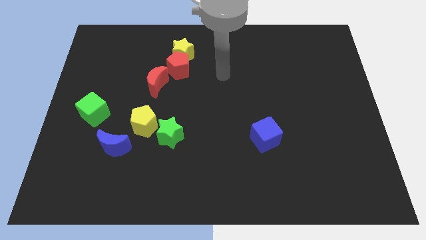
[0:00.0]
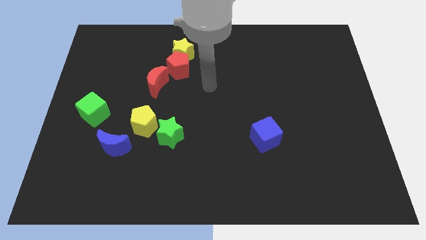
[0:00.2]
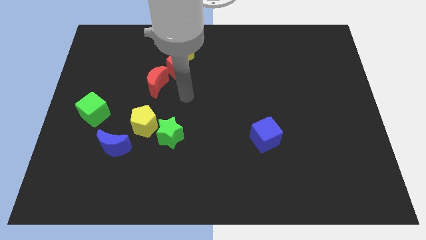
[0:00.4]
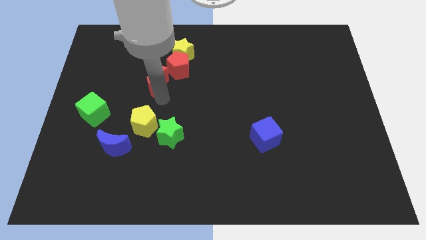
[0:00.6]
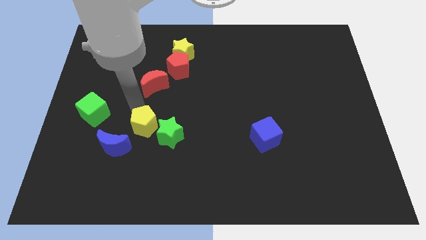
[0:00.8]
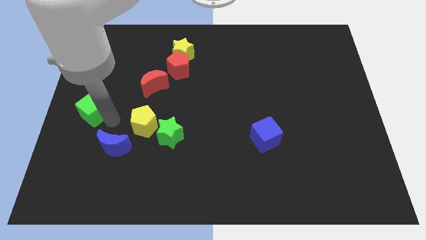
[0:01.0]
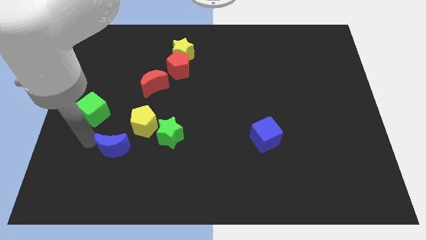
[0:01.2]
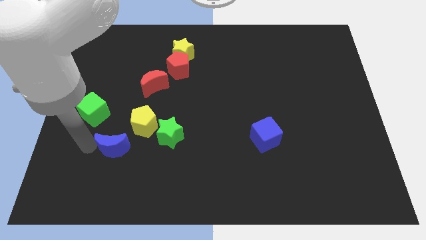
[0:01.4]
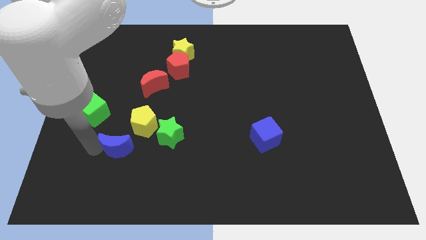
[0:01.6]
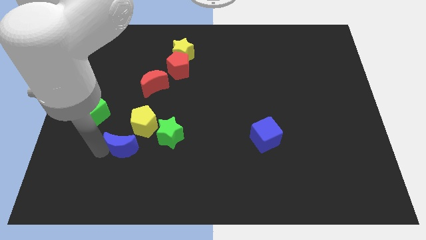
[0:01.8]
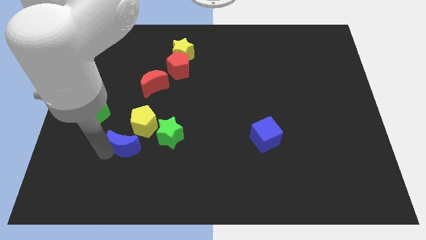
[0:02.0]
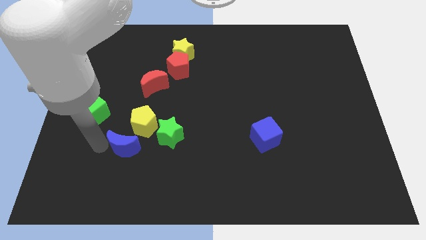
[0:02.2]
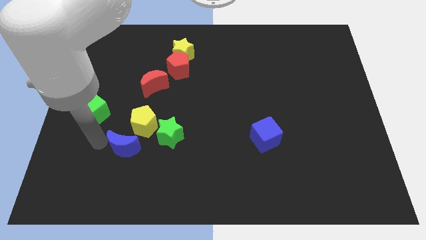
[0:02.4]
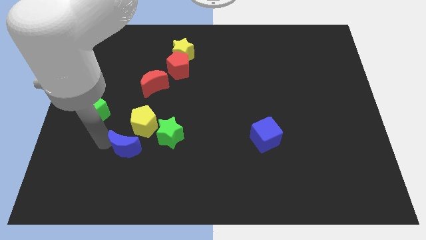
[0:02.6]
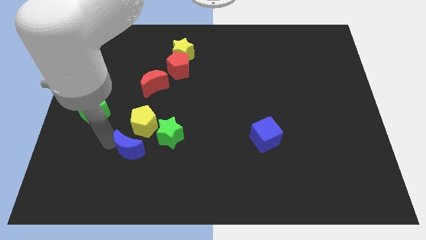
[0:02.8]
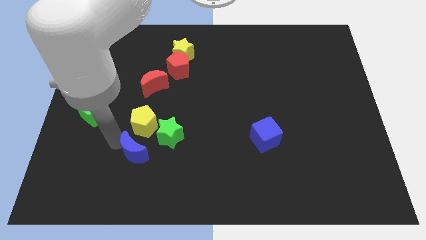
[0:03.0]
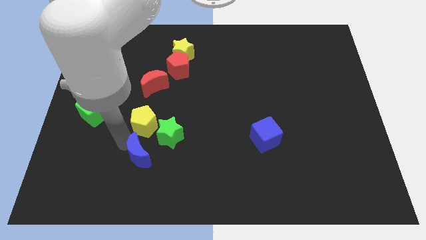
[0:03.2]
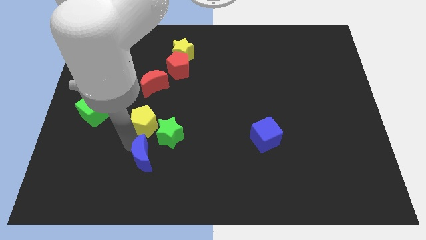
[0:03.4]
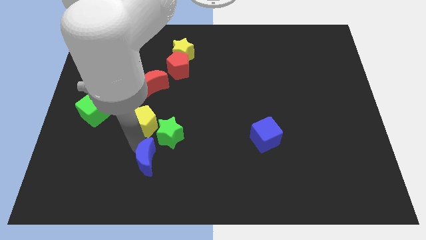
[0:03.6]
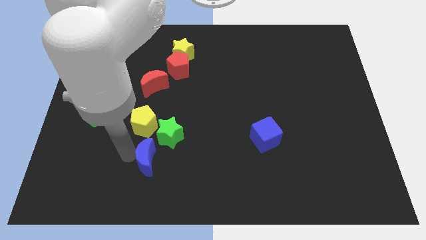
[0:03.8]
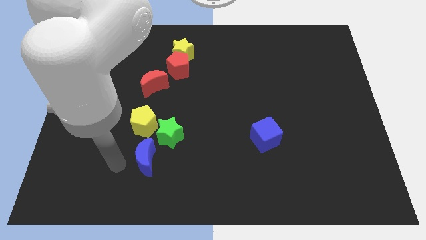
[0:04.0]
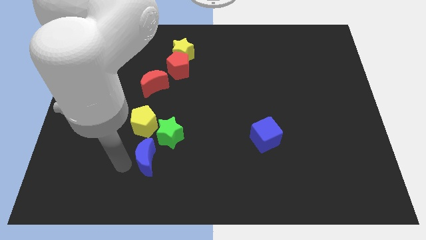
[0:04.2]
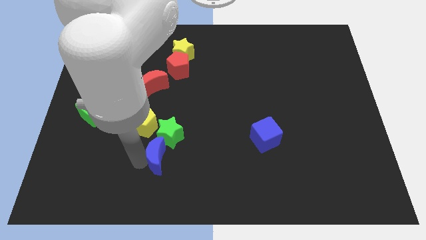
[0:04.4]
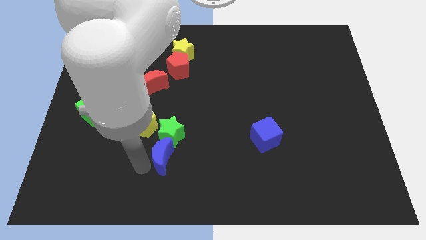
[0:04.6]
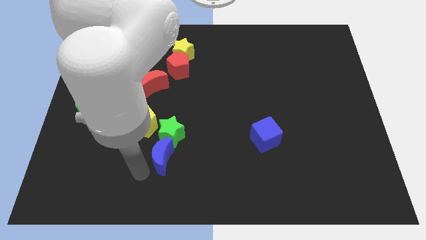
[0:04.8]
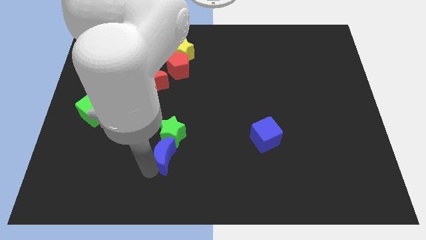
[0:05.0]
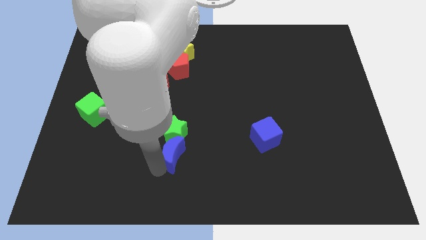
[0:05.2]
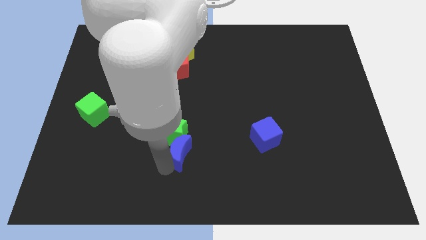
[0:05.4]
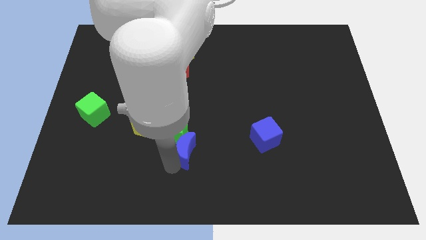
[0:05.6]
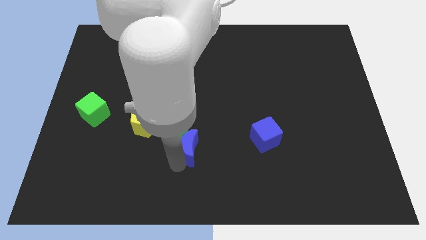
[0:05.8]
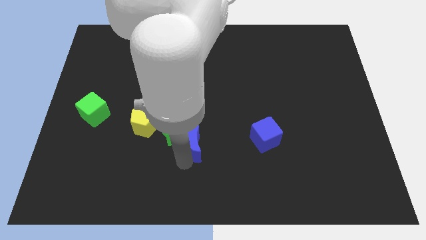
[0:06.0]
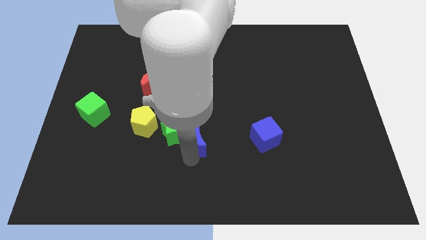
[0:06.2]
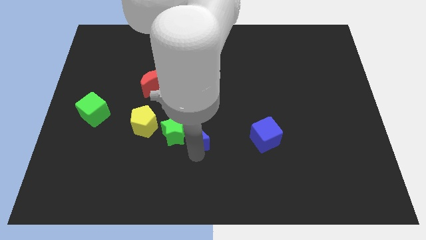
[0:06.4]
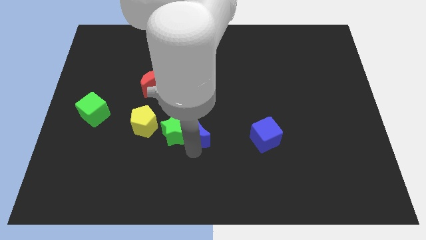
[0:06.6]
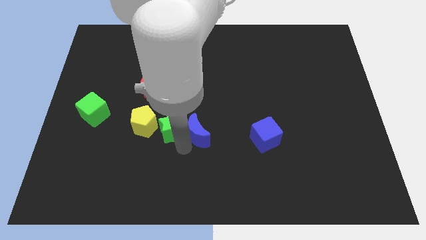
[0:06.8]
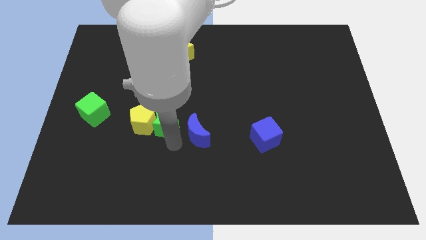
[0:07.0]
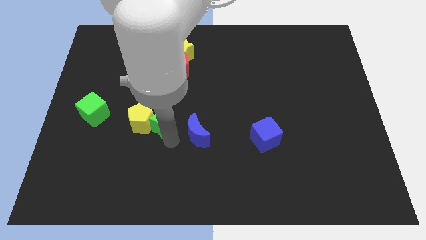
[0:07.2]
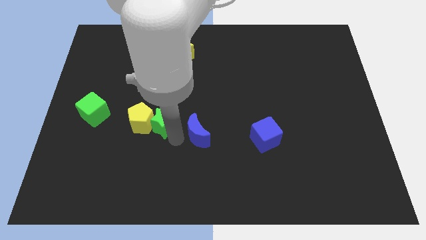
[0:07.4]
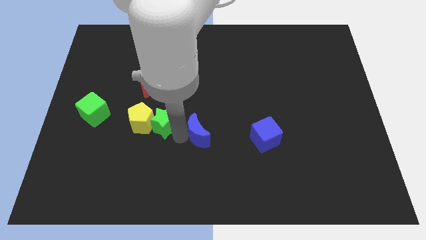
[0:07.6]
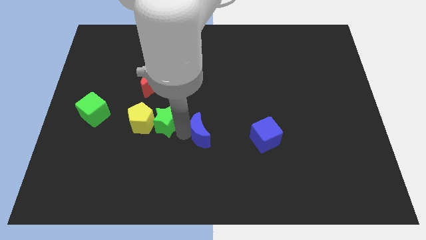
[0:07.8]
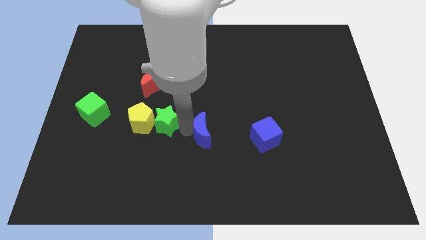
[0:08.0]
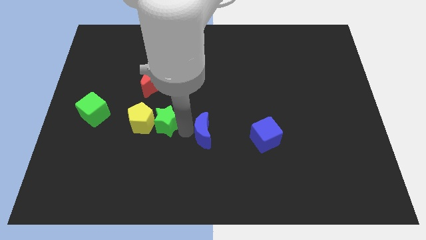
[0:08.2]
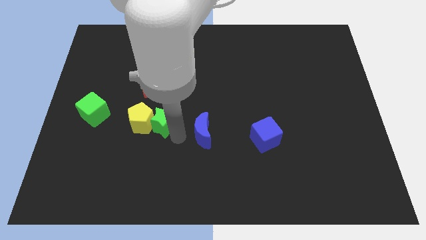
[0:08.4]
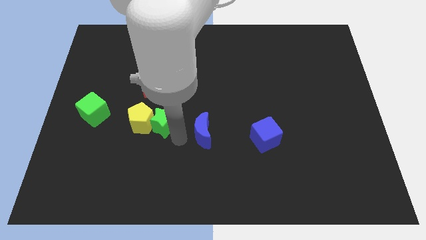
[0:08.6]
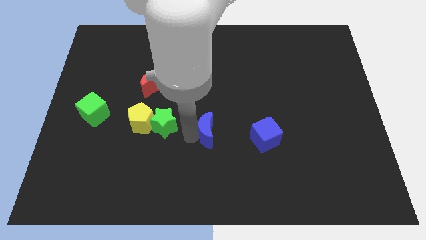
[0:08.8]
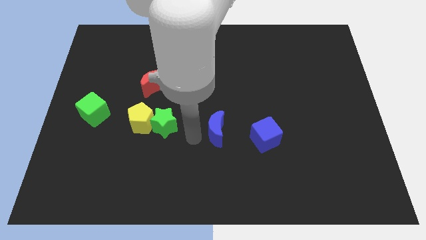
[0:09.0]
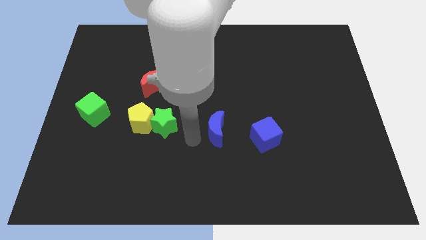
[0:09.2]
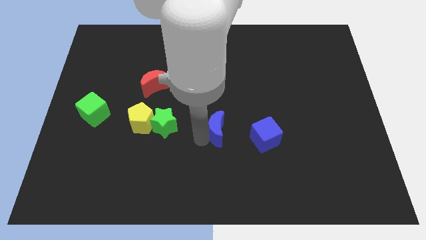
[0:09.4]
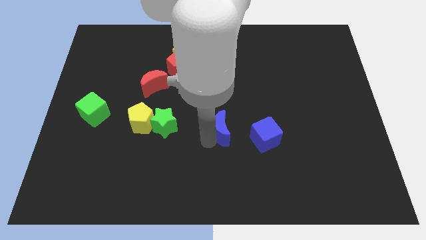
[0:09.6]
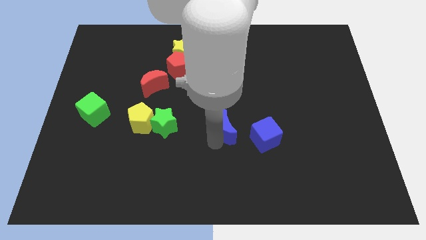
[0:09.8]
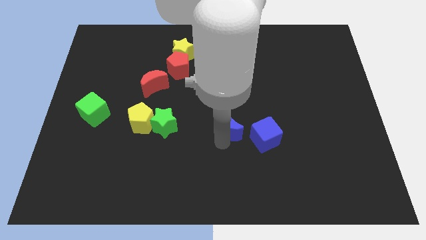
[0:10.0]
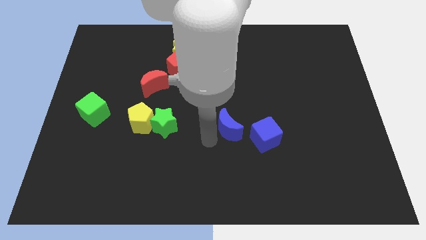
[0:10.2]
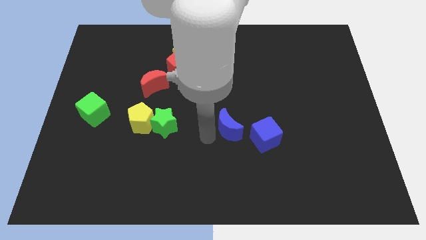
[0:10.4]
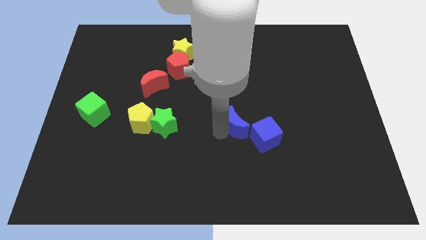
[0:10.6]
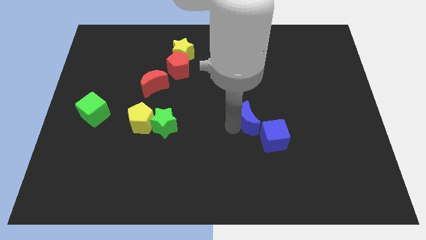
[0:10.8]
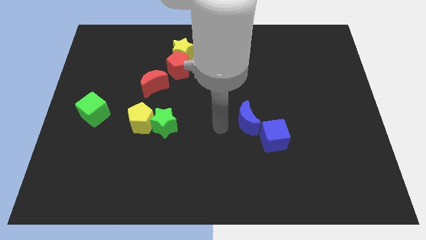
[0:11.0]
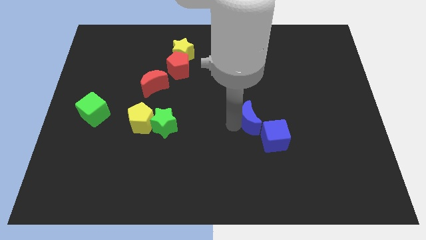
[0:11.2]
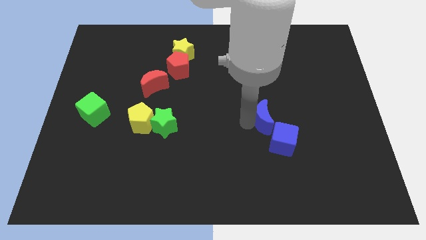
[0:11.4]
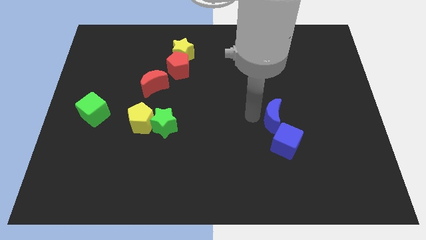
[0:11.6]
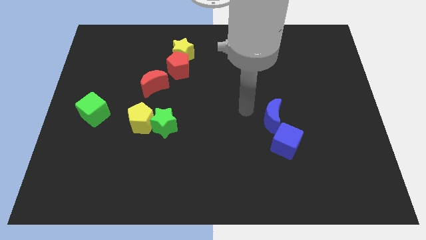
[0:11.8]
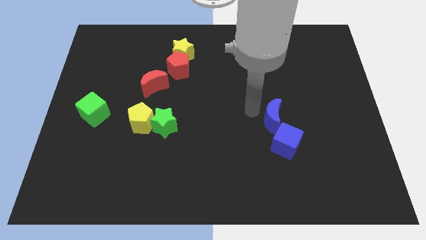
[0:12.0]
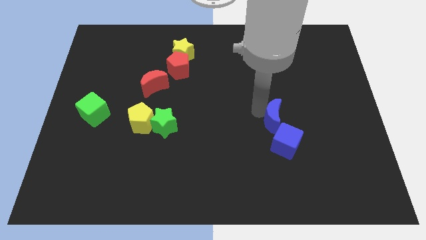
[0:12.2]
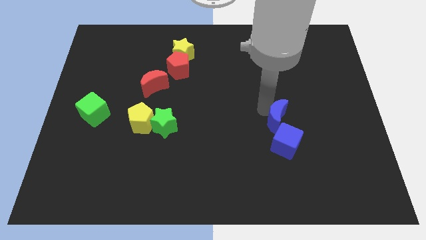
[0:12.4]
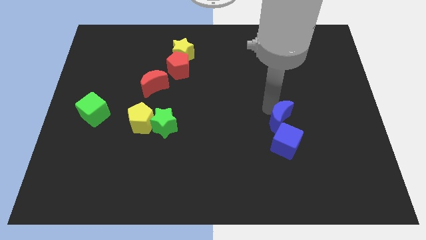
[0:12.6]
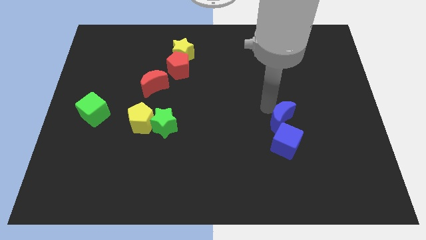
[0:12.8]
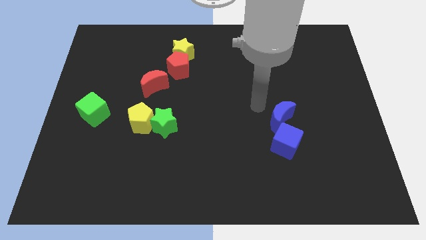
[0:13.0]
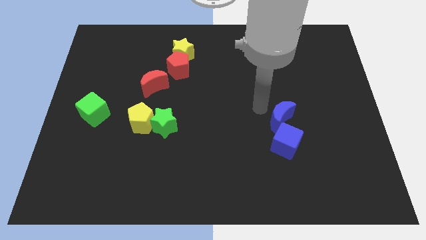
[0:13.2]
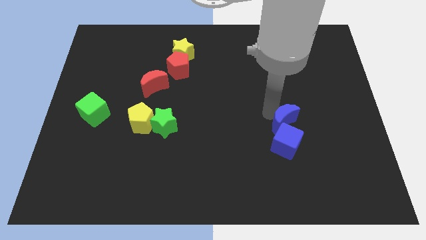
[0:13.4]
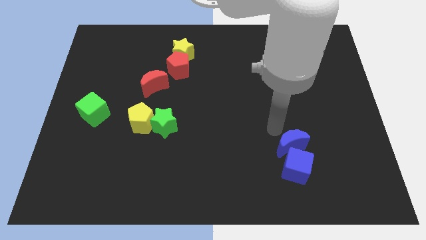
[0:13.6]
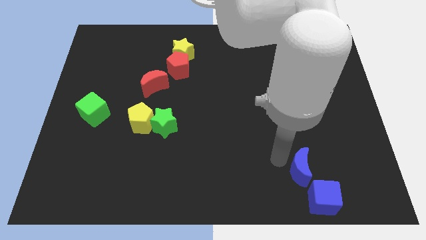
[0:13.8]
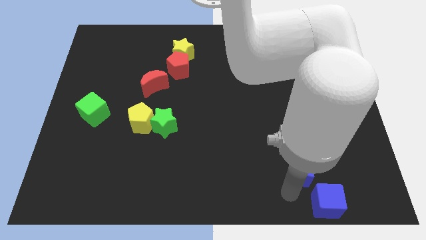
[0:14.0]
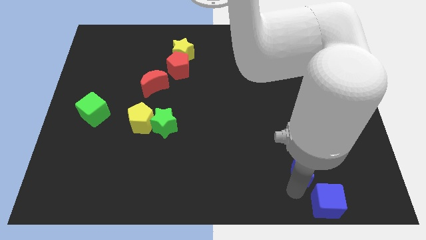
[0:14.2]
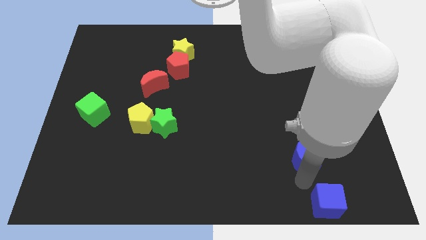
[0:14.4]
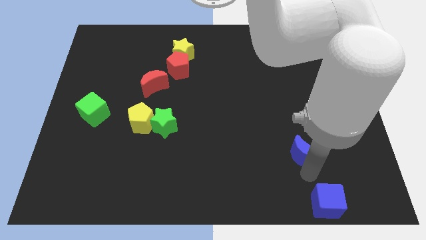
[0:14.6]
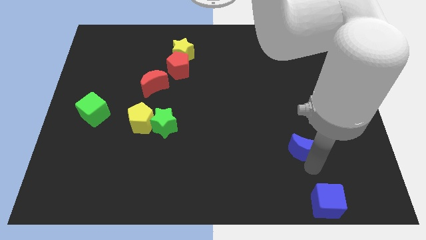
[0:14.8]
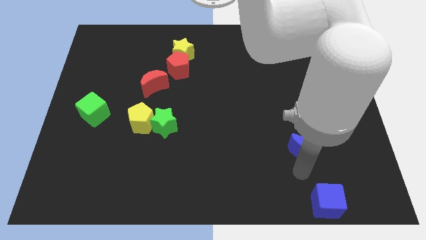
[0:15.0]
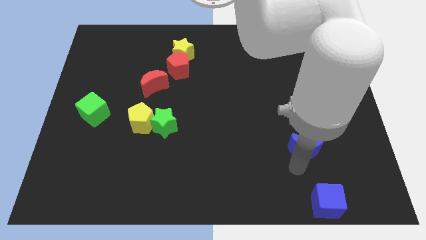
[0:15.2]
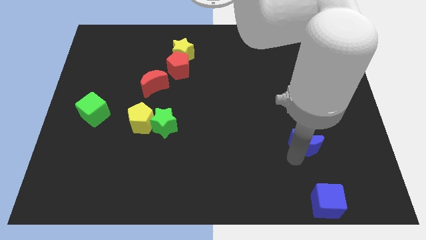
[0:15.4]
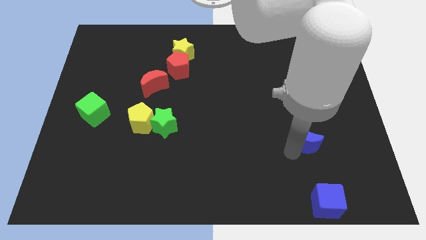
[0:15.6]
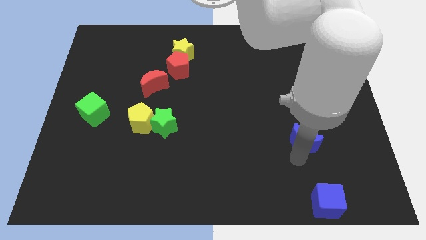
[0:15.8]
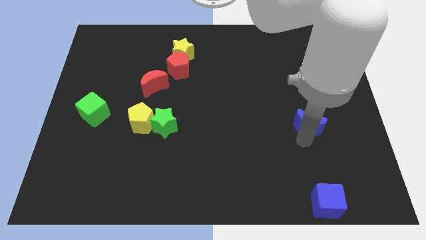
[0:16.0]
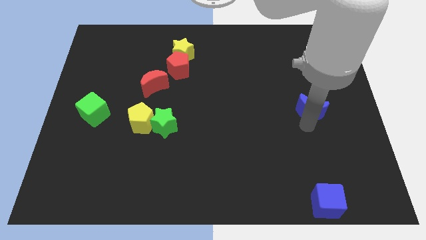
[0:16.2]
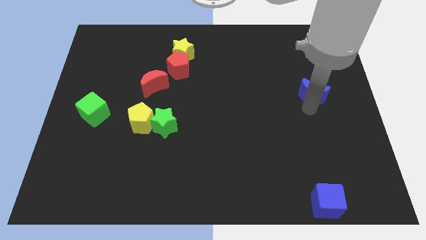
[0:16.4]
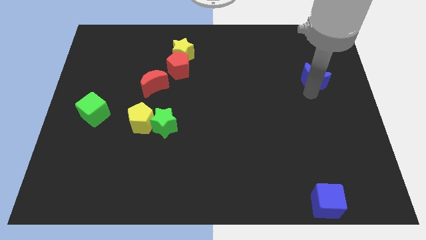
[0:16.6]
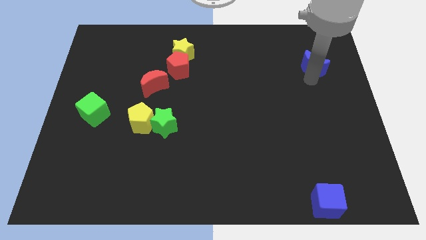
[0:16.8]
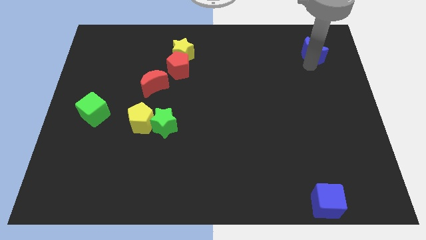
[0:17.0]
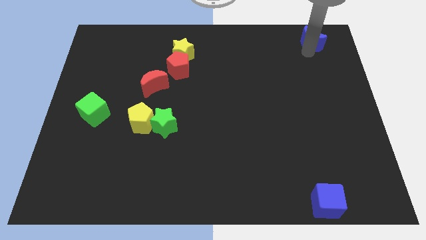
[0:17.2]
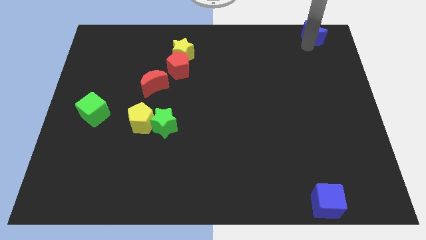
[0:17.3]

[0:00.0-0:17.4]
move the blue moon to the upper right corner
